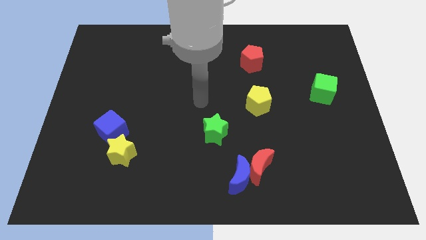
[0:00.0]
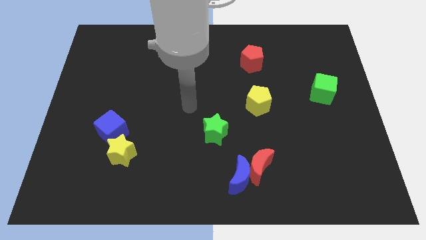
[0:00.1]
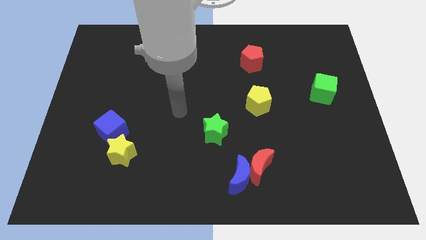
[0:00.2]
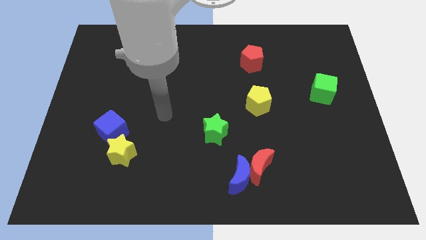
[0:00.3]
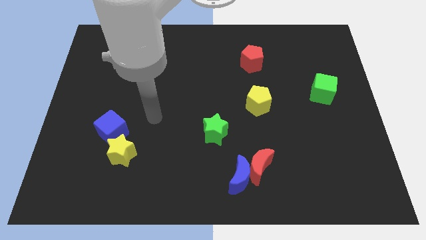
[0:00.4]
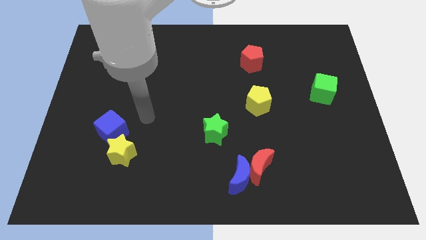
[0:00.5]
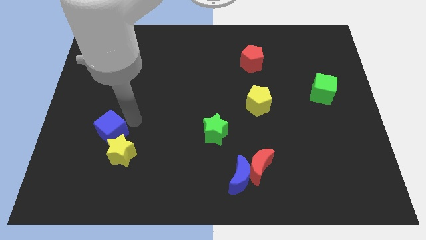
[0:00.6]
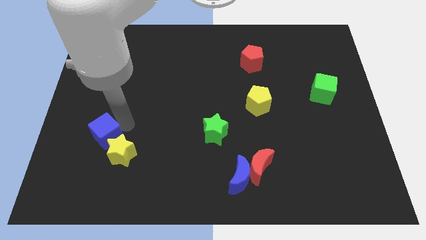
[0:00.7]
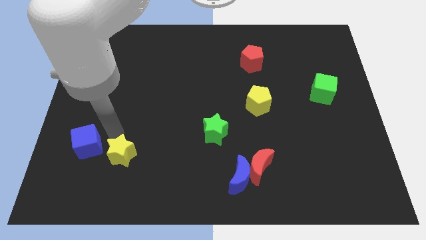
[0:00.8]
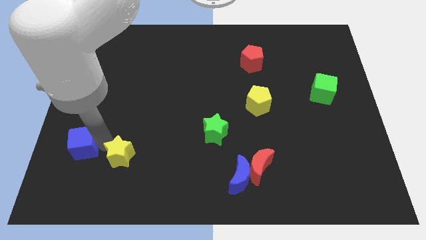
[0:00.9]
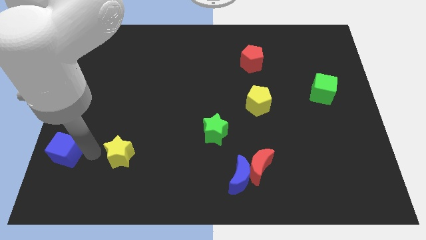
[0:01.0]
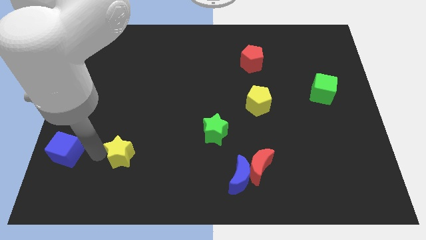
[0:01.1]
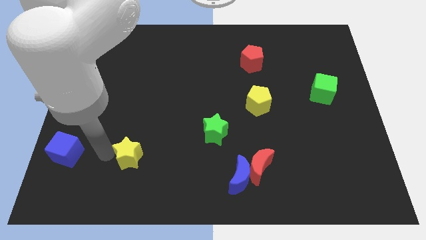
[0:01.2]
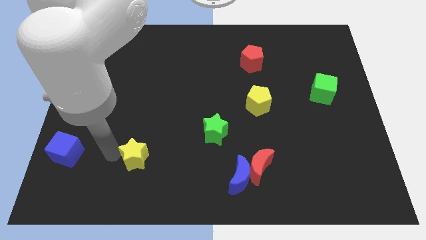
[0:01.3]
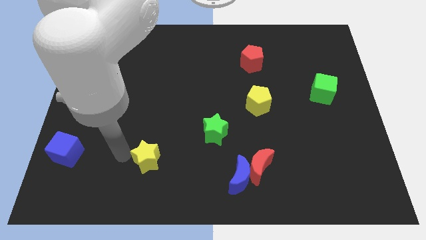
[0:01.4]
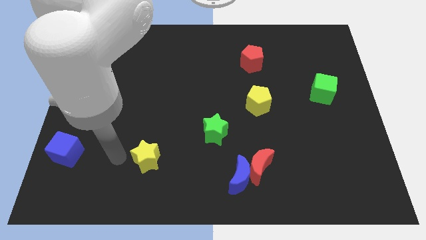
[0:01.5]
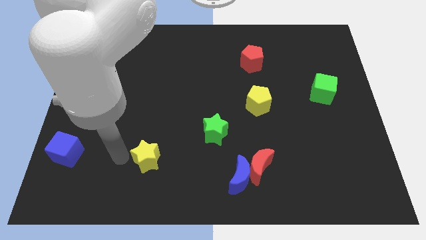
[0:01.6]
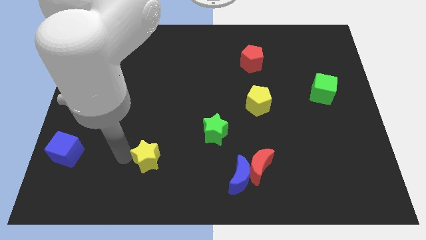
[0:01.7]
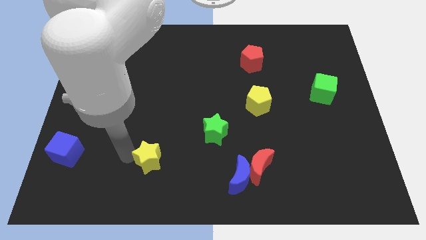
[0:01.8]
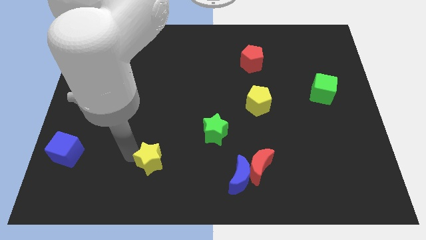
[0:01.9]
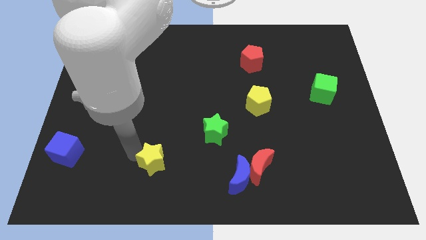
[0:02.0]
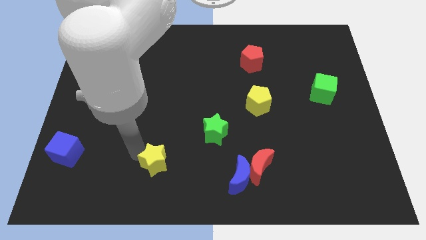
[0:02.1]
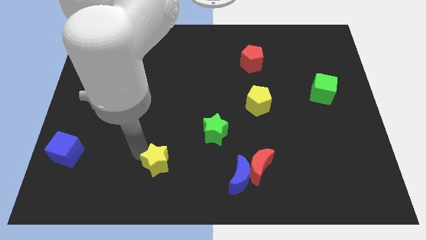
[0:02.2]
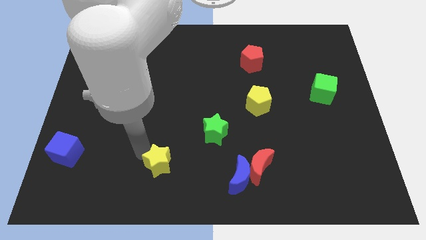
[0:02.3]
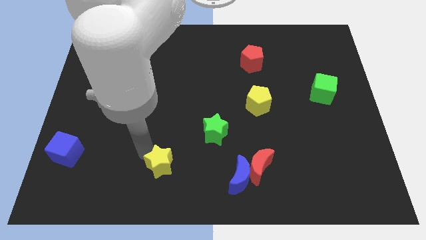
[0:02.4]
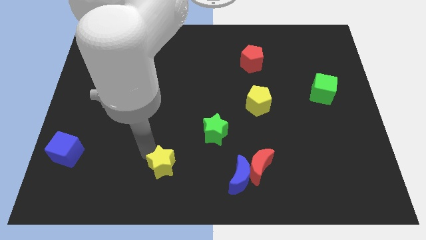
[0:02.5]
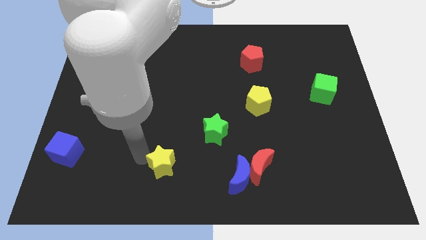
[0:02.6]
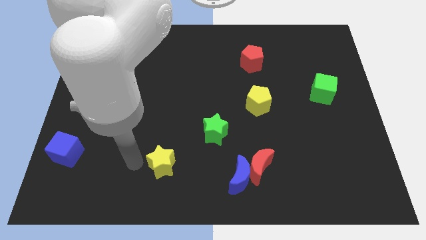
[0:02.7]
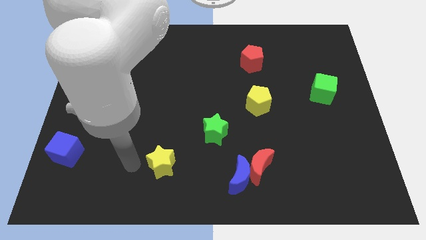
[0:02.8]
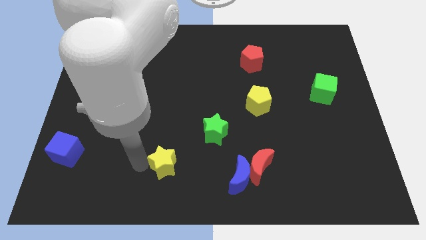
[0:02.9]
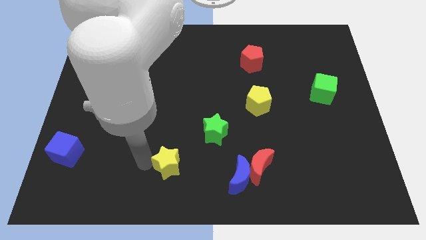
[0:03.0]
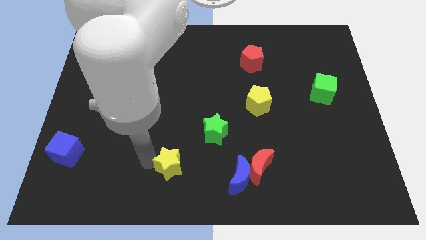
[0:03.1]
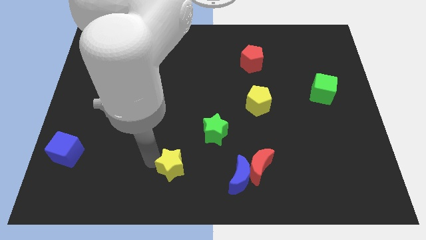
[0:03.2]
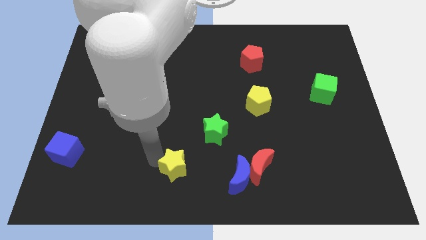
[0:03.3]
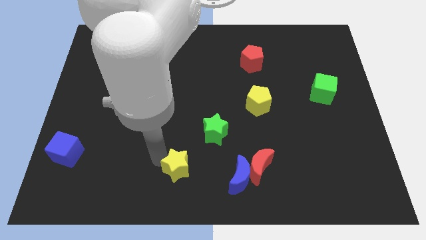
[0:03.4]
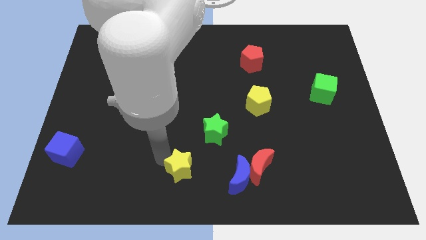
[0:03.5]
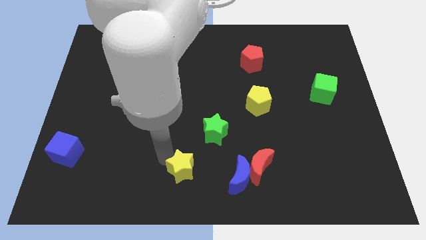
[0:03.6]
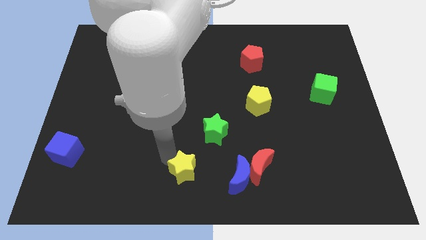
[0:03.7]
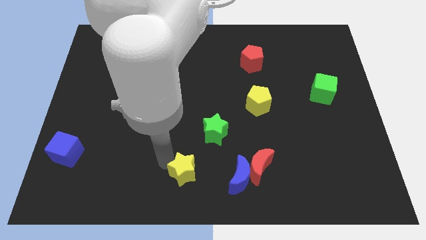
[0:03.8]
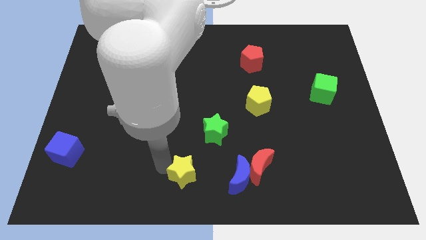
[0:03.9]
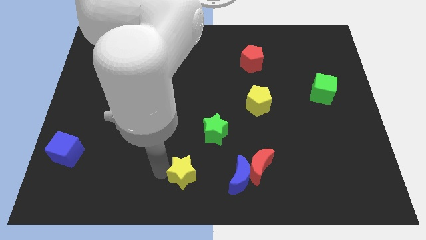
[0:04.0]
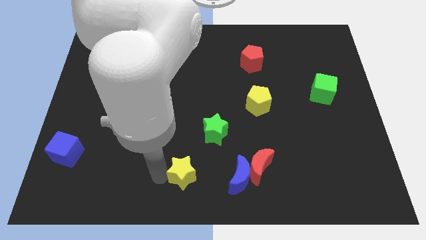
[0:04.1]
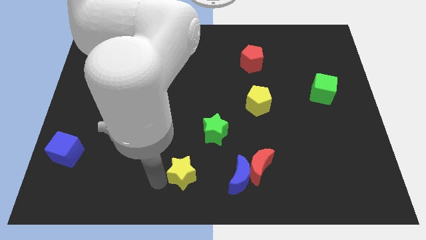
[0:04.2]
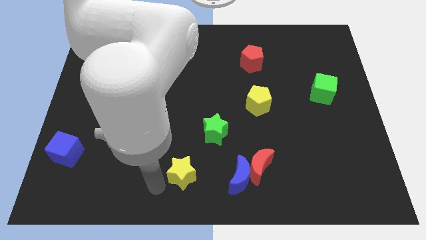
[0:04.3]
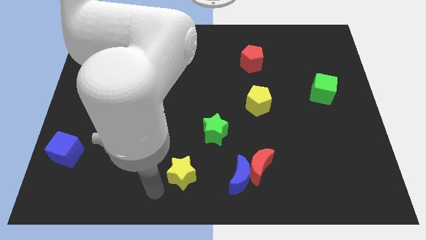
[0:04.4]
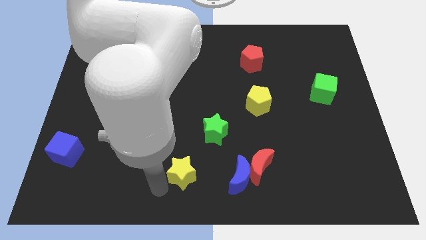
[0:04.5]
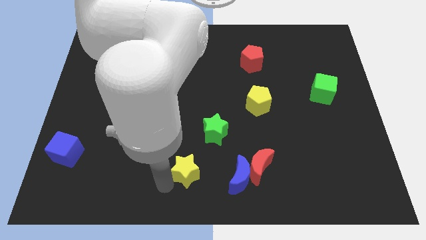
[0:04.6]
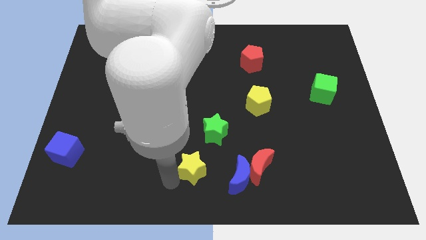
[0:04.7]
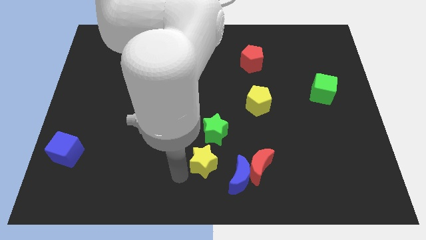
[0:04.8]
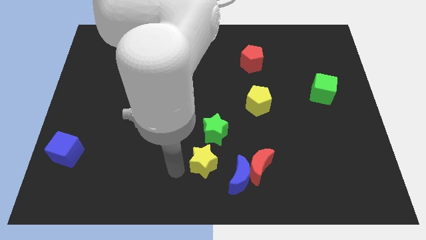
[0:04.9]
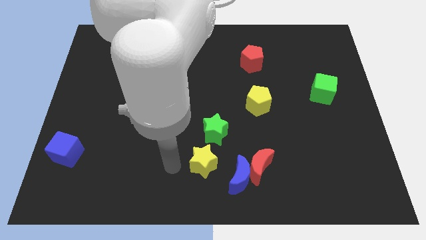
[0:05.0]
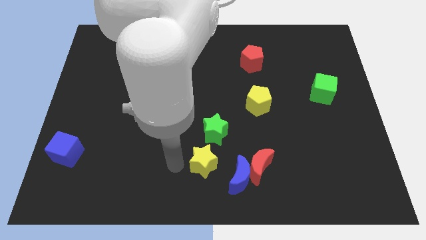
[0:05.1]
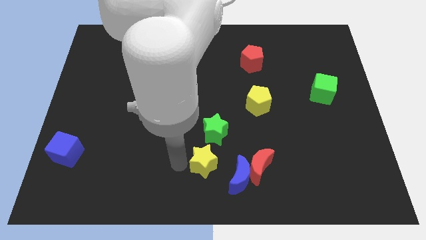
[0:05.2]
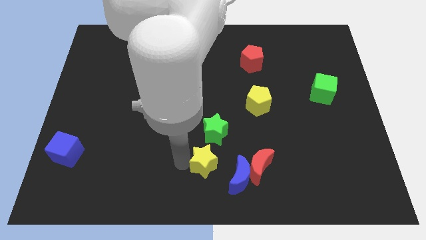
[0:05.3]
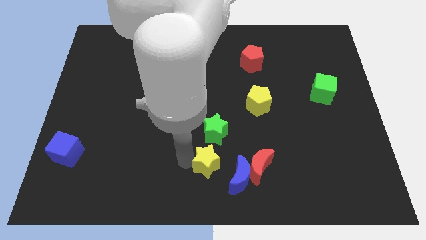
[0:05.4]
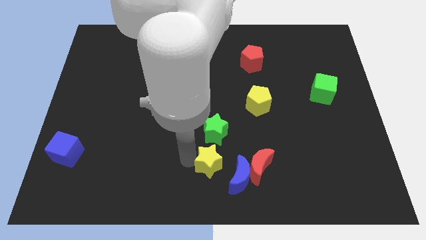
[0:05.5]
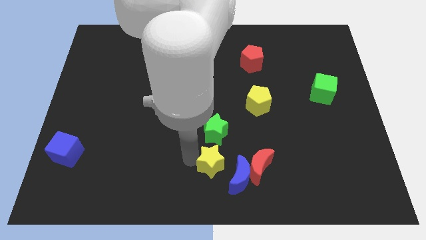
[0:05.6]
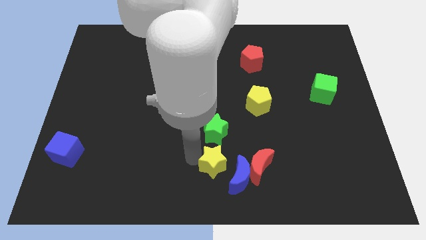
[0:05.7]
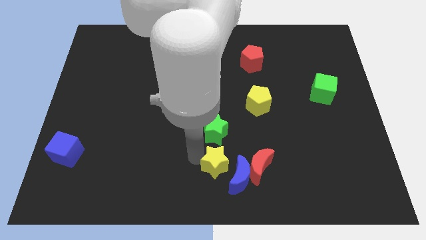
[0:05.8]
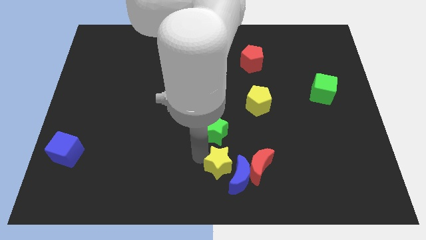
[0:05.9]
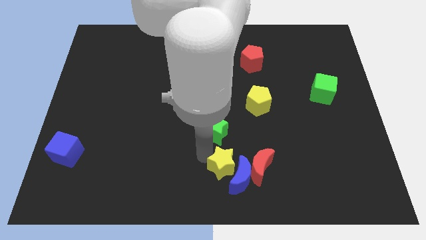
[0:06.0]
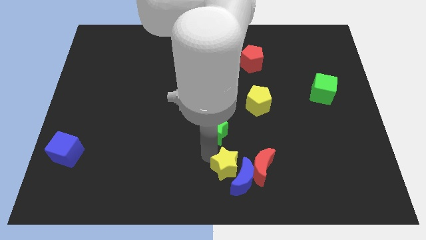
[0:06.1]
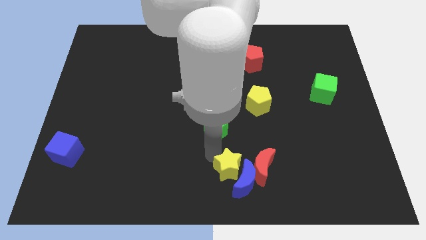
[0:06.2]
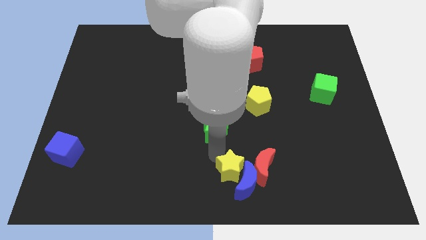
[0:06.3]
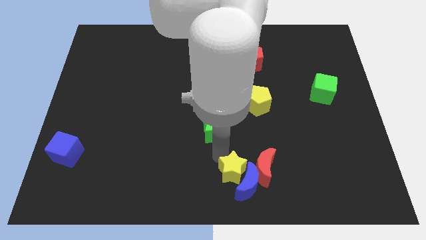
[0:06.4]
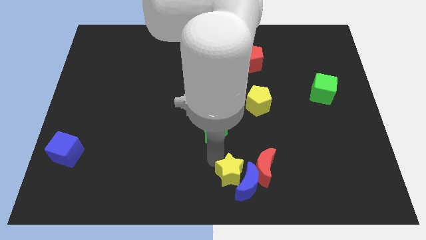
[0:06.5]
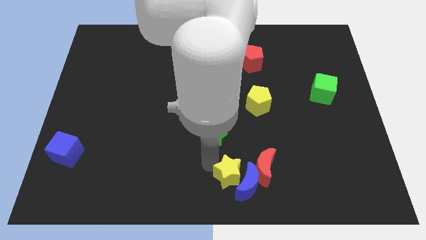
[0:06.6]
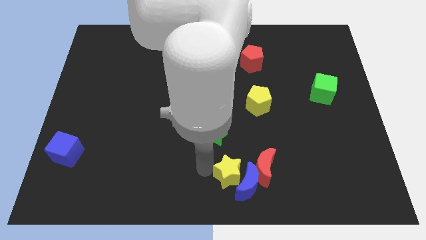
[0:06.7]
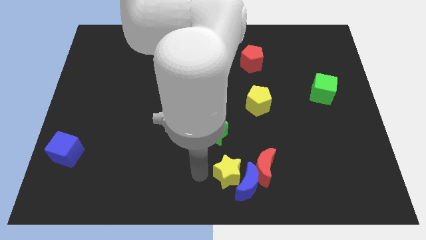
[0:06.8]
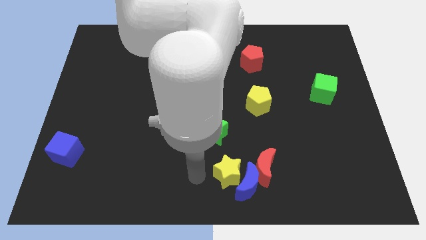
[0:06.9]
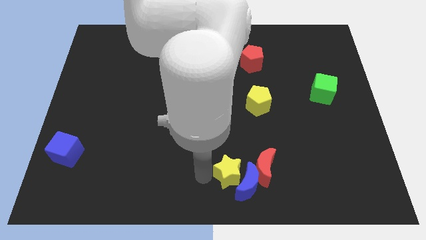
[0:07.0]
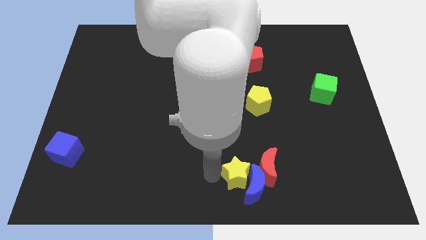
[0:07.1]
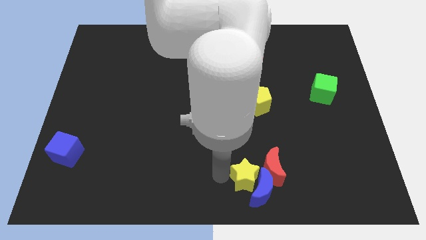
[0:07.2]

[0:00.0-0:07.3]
move the yellow star towards the red moon

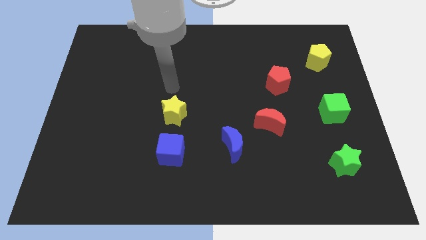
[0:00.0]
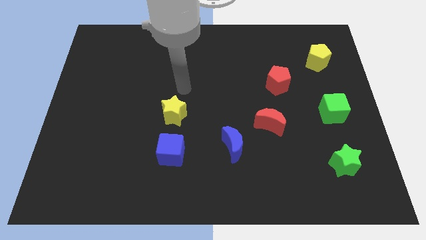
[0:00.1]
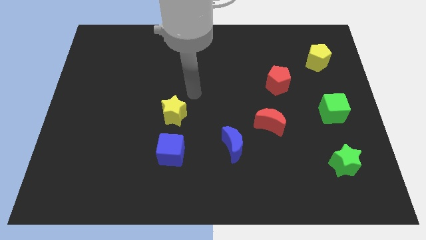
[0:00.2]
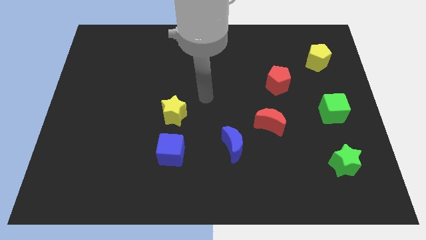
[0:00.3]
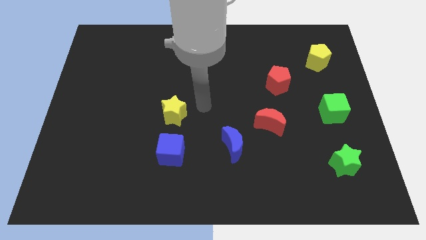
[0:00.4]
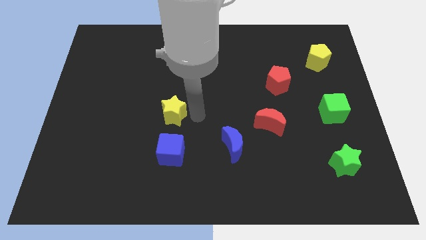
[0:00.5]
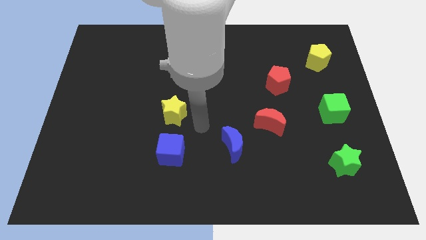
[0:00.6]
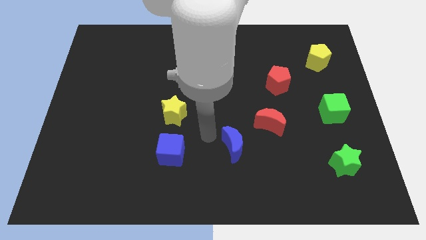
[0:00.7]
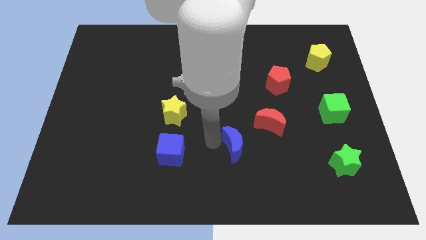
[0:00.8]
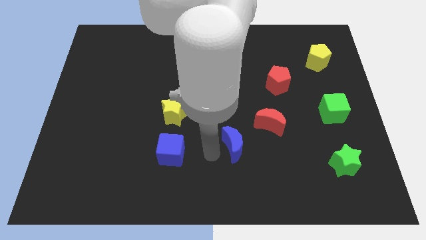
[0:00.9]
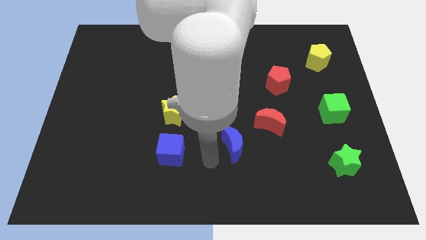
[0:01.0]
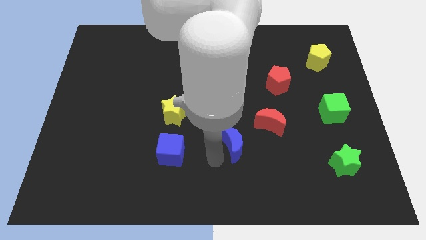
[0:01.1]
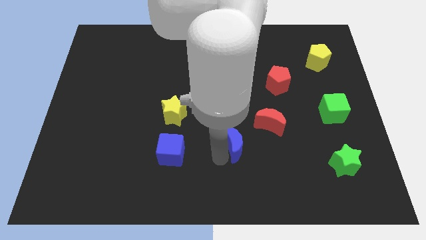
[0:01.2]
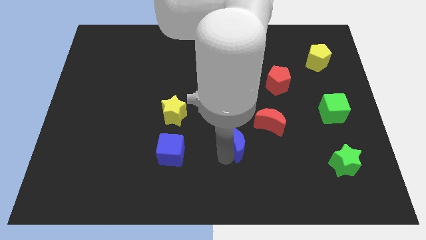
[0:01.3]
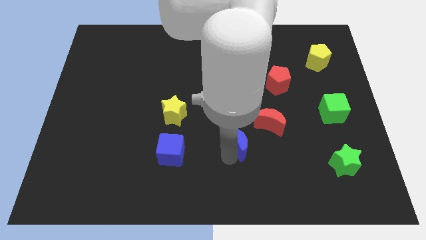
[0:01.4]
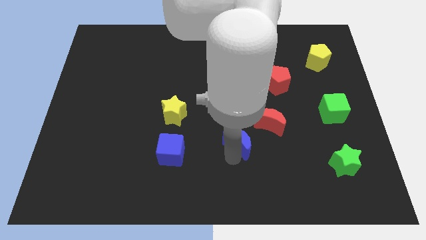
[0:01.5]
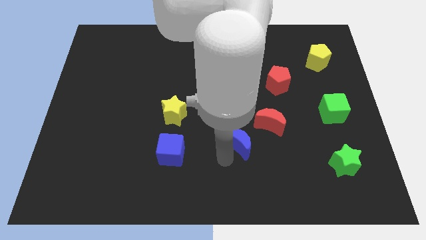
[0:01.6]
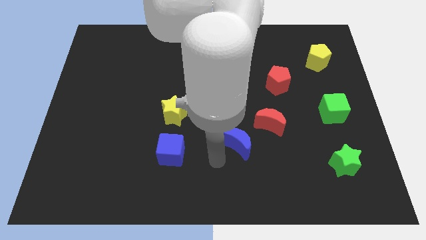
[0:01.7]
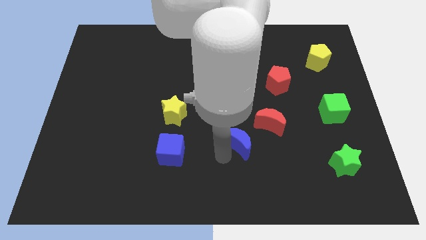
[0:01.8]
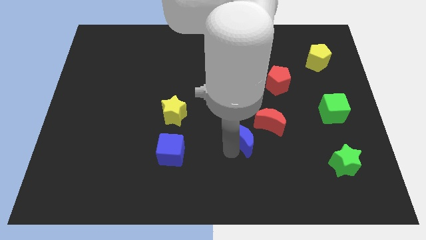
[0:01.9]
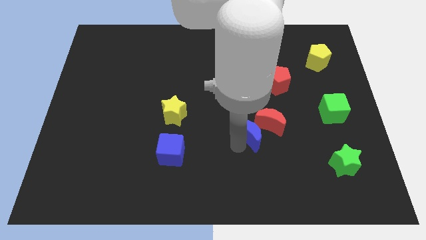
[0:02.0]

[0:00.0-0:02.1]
slide the blue moon next to the red moon
